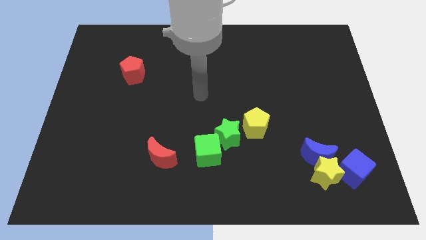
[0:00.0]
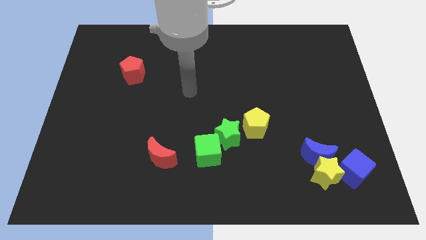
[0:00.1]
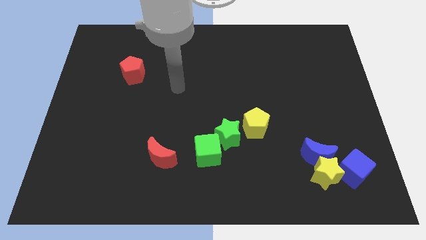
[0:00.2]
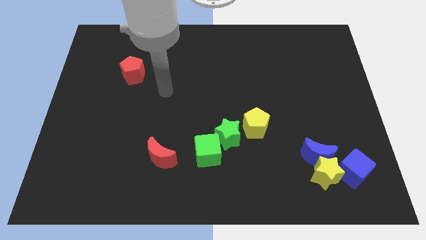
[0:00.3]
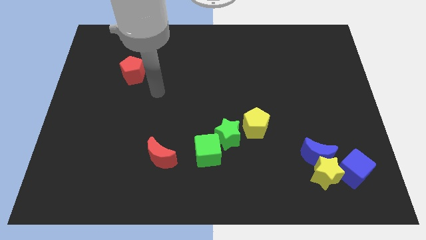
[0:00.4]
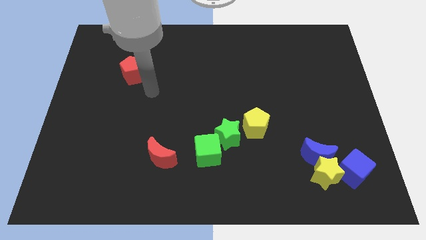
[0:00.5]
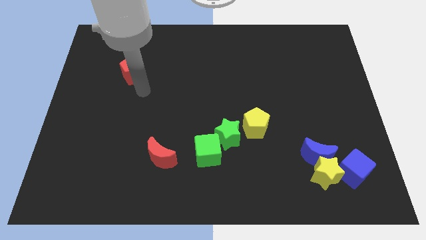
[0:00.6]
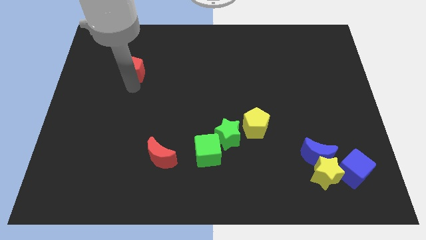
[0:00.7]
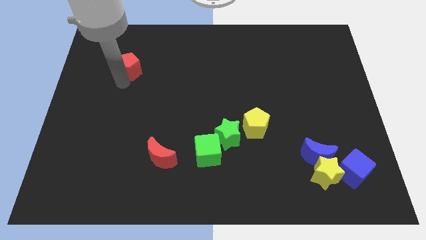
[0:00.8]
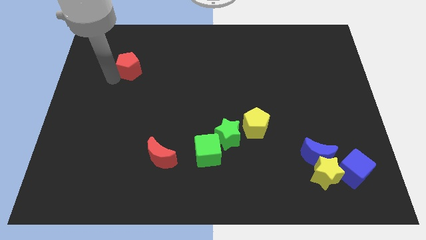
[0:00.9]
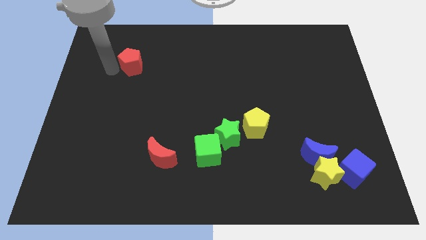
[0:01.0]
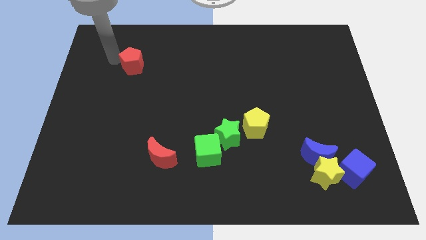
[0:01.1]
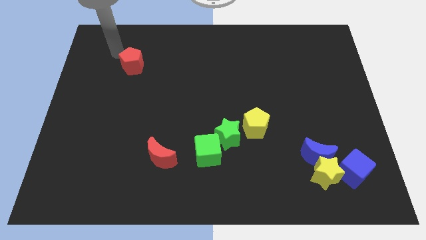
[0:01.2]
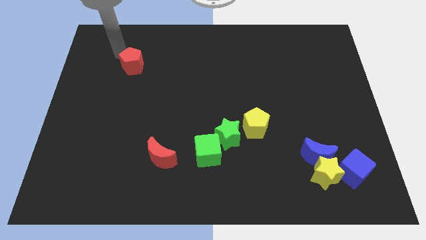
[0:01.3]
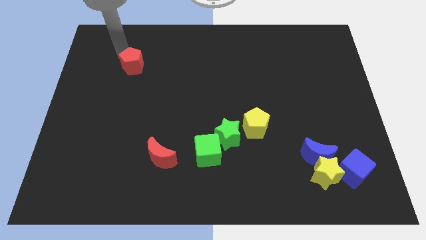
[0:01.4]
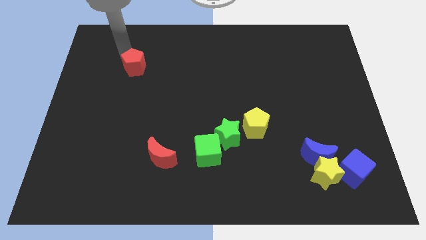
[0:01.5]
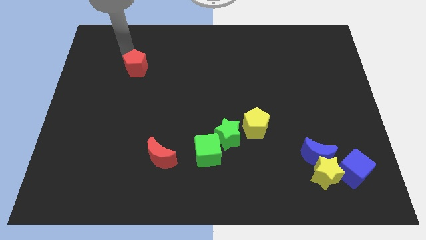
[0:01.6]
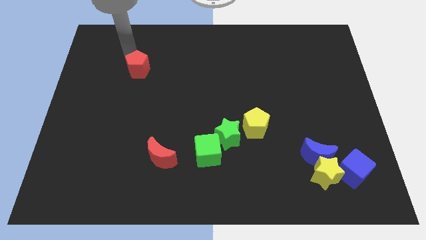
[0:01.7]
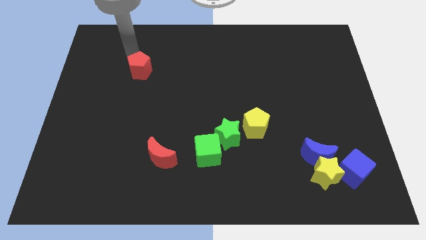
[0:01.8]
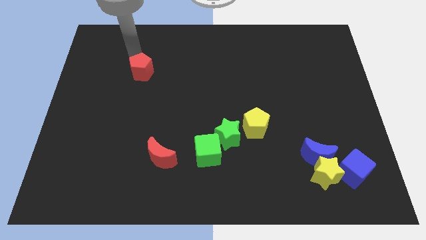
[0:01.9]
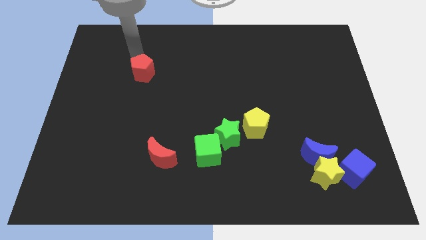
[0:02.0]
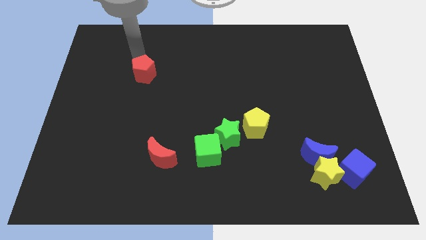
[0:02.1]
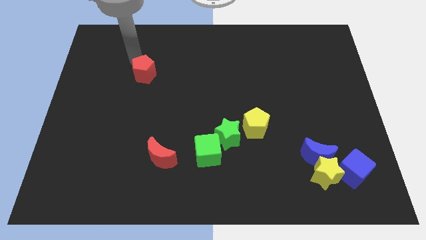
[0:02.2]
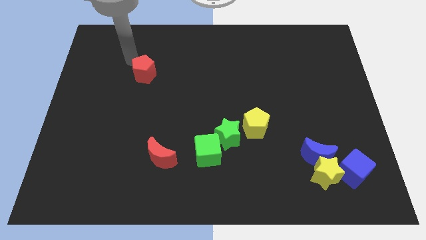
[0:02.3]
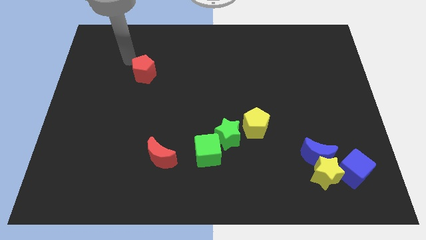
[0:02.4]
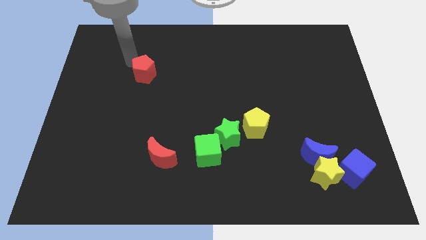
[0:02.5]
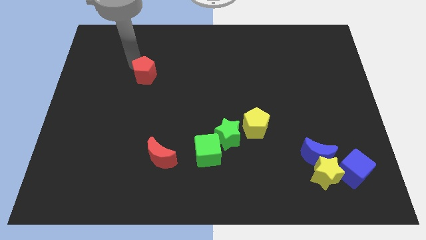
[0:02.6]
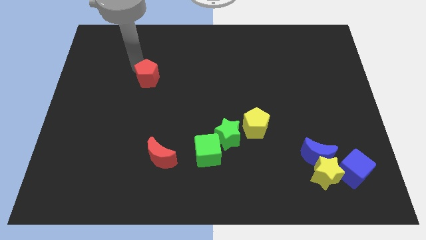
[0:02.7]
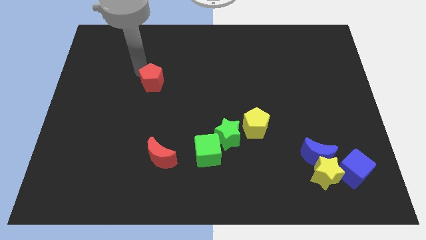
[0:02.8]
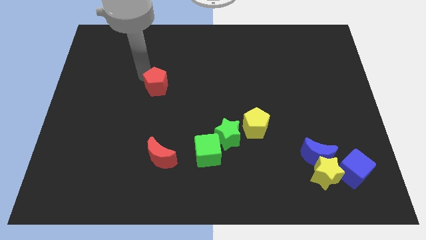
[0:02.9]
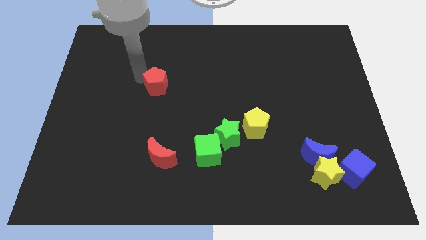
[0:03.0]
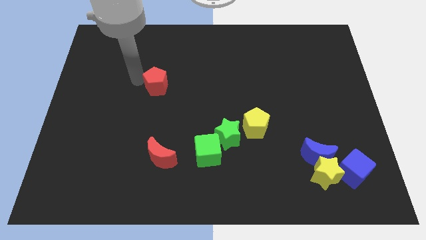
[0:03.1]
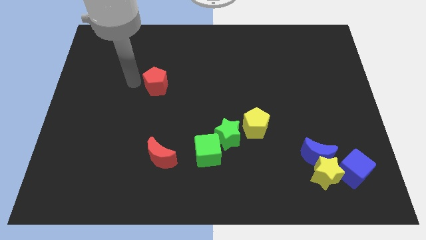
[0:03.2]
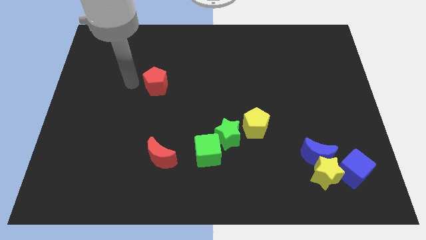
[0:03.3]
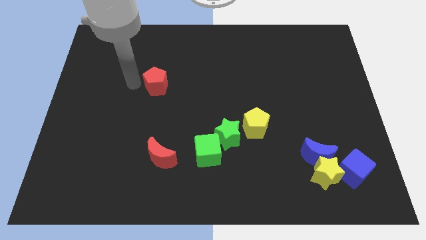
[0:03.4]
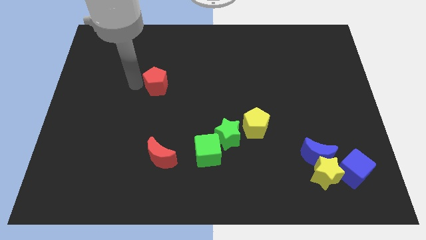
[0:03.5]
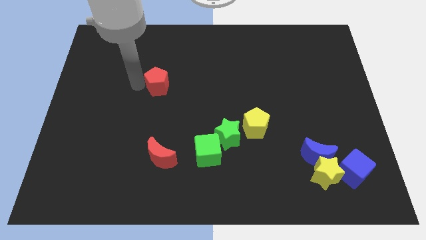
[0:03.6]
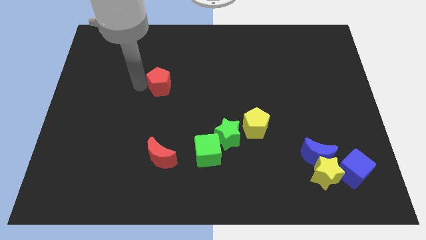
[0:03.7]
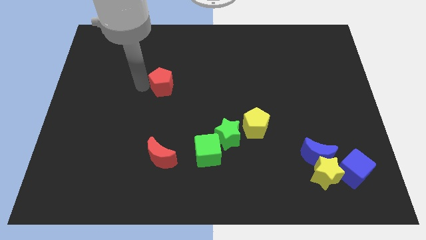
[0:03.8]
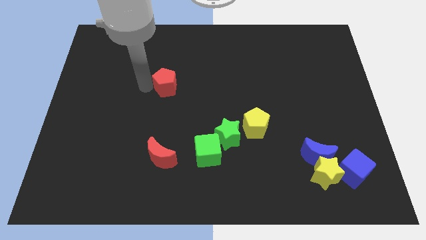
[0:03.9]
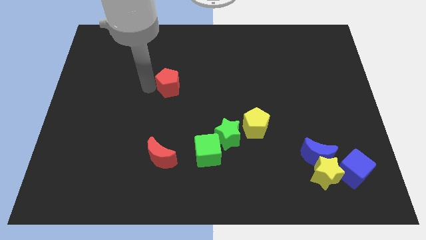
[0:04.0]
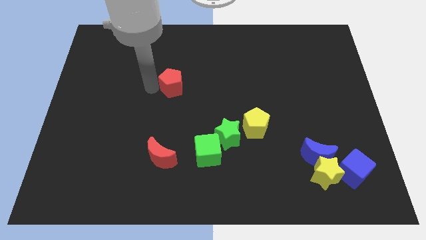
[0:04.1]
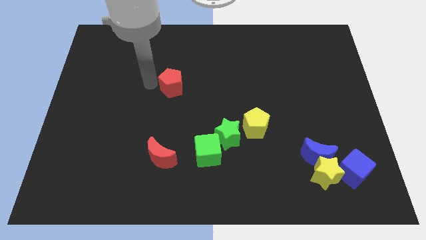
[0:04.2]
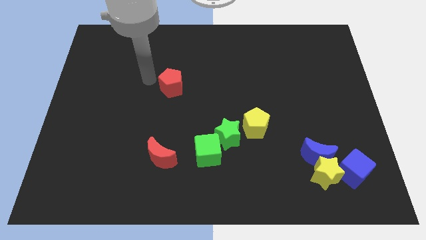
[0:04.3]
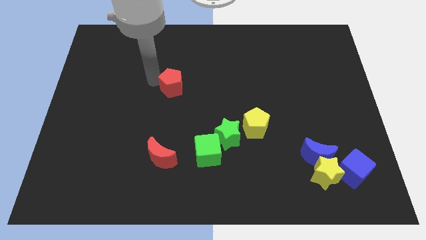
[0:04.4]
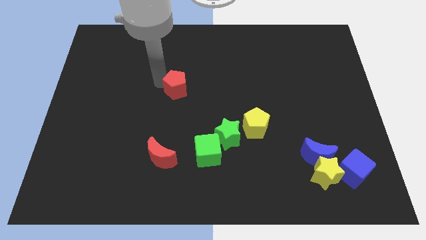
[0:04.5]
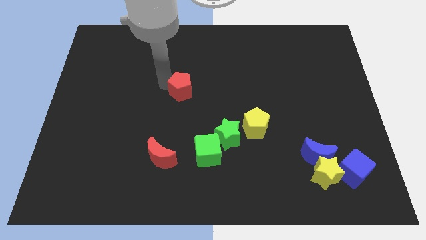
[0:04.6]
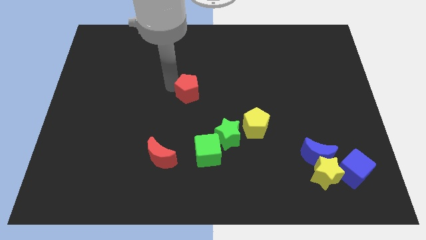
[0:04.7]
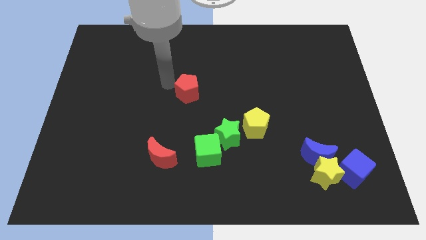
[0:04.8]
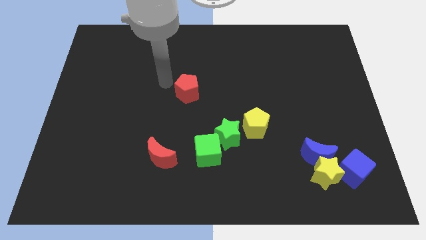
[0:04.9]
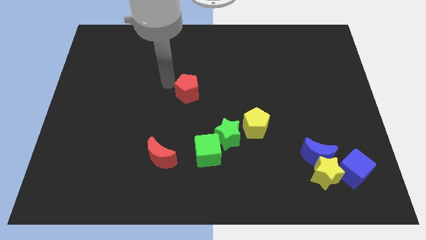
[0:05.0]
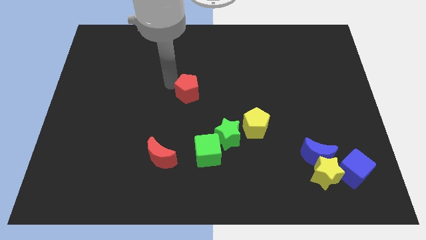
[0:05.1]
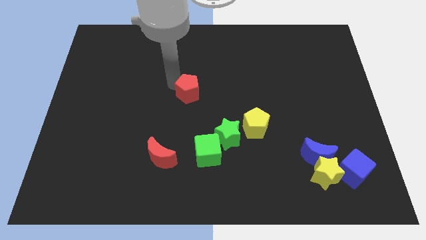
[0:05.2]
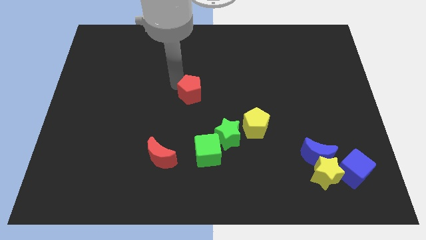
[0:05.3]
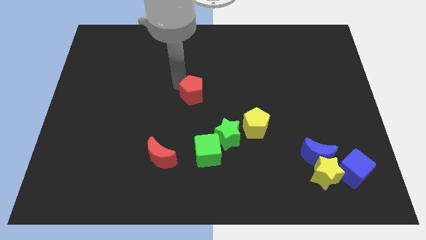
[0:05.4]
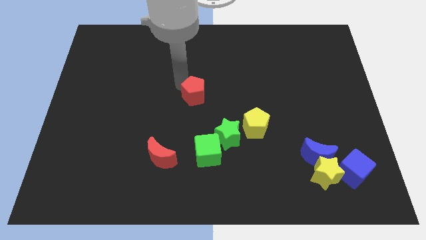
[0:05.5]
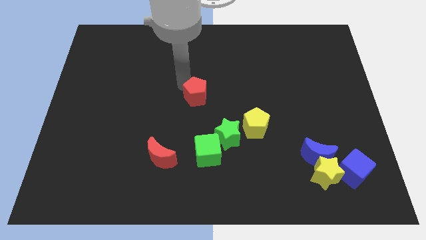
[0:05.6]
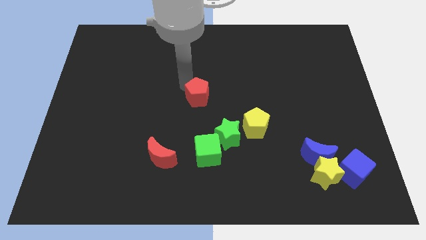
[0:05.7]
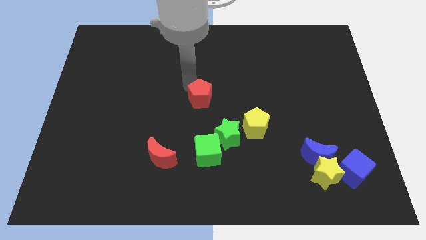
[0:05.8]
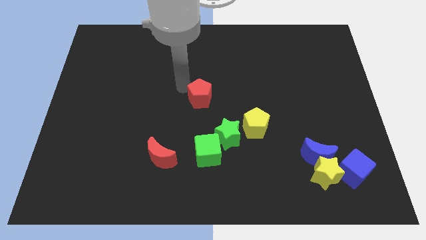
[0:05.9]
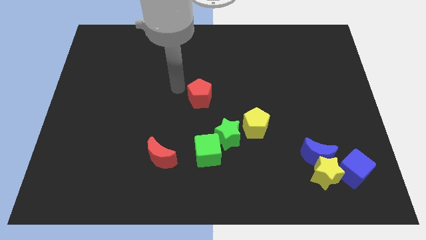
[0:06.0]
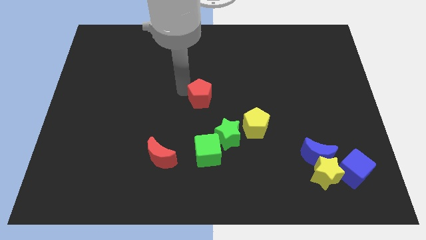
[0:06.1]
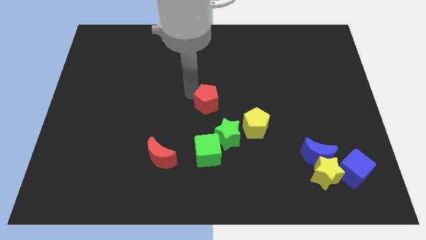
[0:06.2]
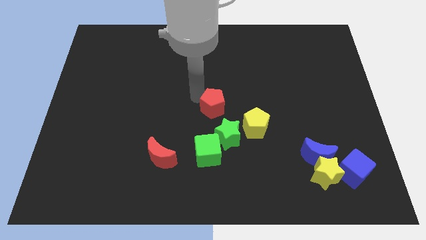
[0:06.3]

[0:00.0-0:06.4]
slide the red pentagon diagonally up and to the left of the yellow pentagon
